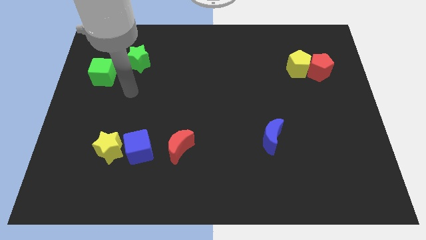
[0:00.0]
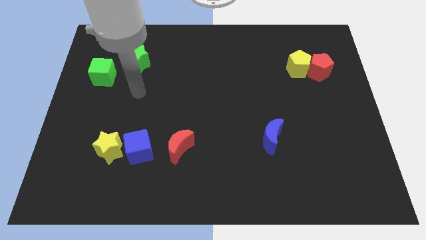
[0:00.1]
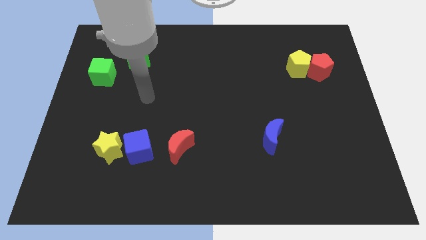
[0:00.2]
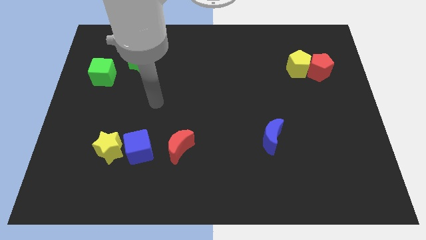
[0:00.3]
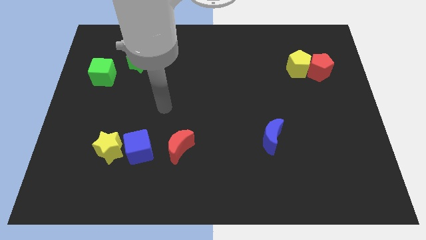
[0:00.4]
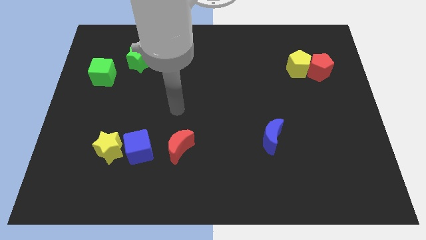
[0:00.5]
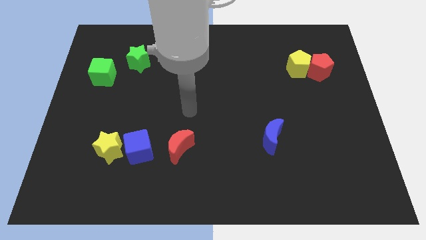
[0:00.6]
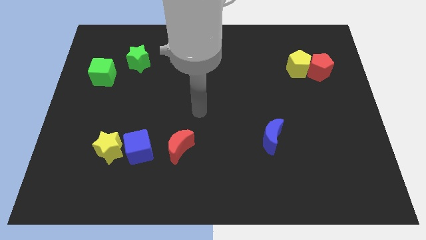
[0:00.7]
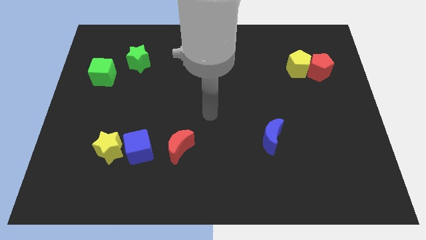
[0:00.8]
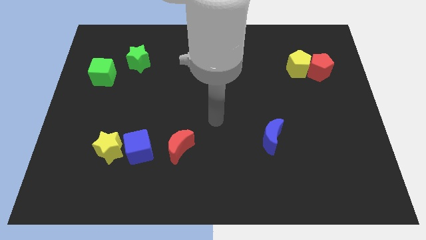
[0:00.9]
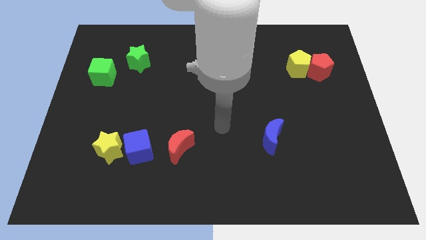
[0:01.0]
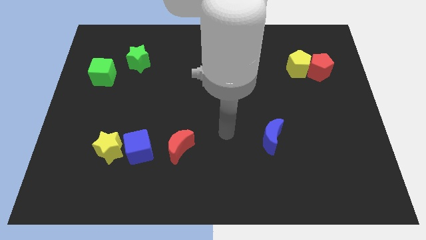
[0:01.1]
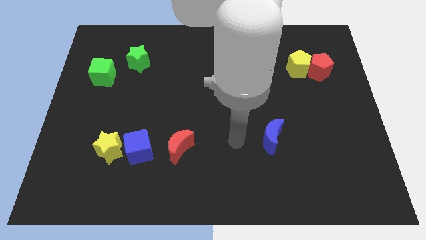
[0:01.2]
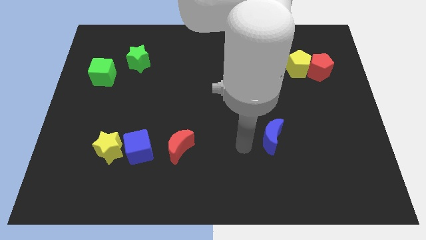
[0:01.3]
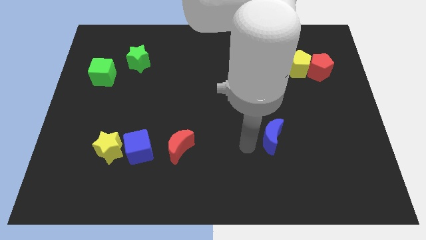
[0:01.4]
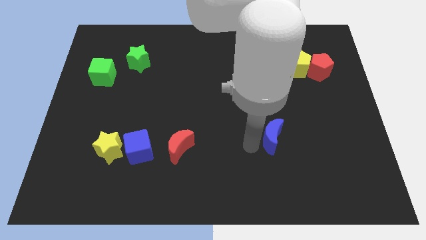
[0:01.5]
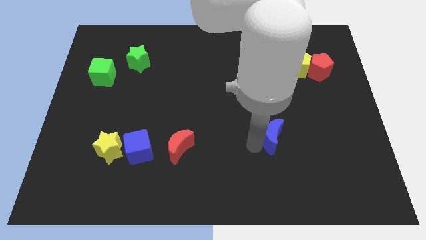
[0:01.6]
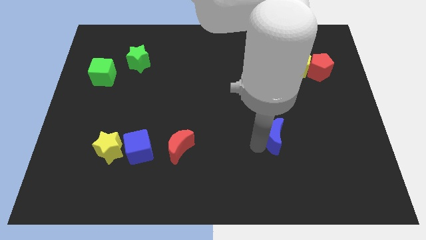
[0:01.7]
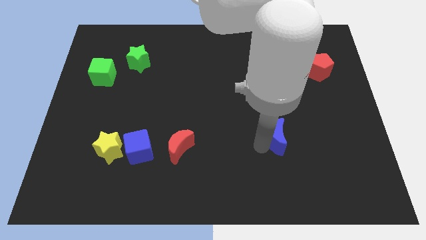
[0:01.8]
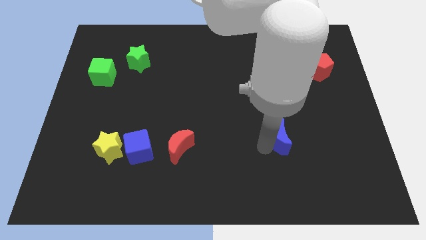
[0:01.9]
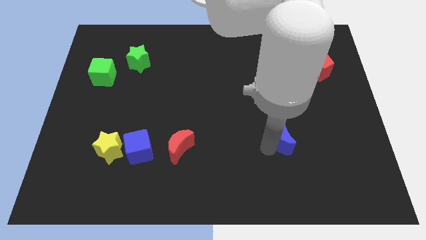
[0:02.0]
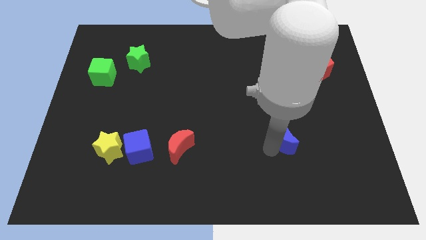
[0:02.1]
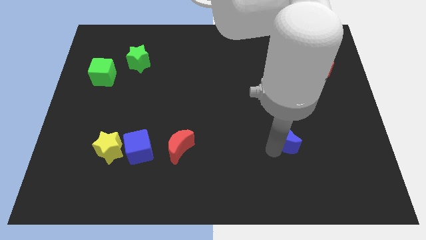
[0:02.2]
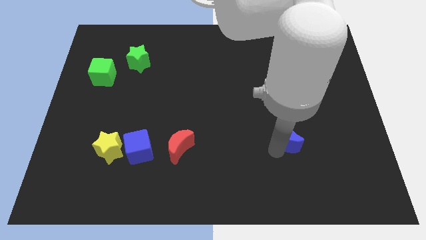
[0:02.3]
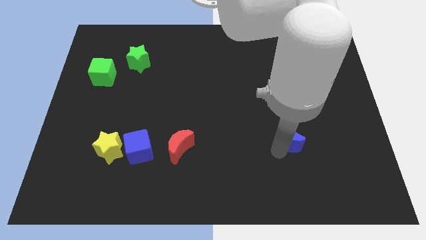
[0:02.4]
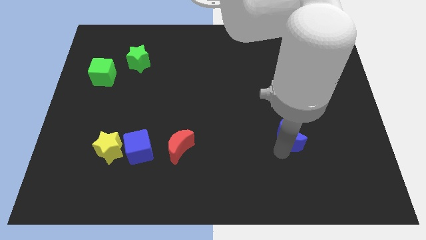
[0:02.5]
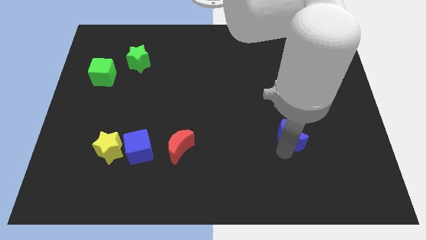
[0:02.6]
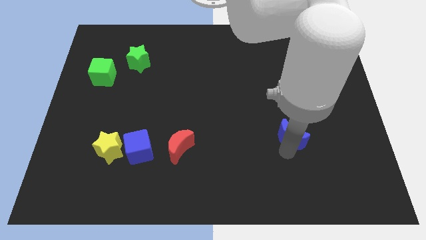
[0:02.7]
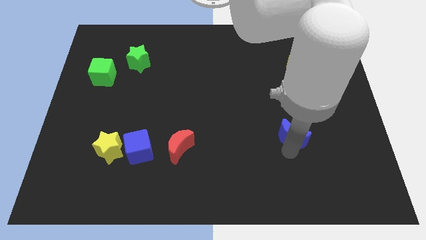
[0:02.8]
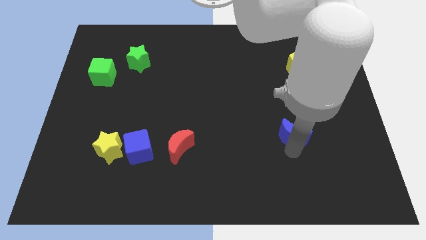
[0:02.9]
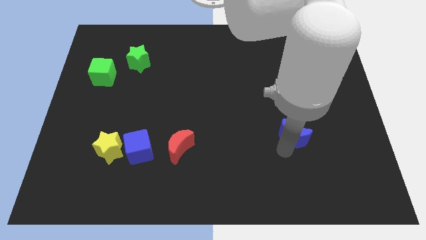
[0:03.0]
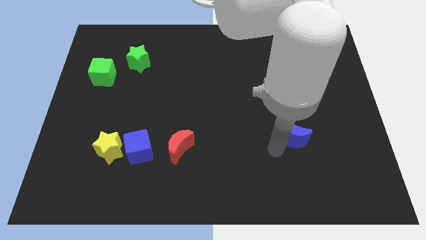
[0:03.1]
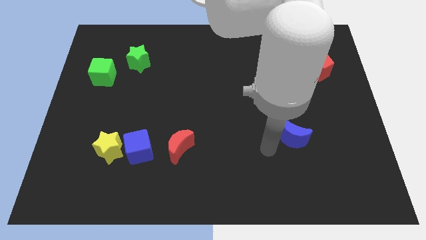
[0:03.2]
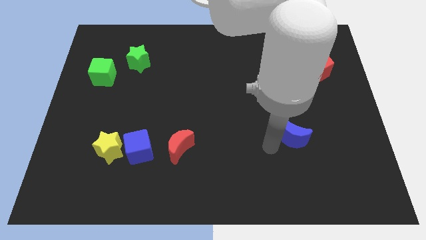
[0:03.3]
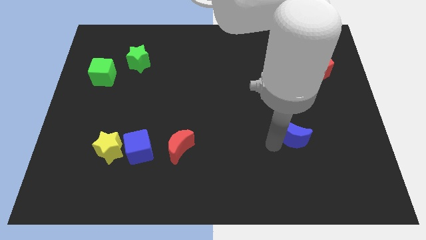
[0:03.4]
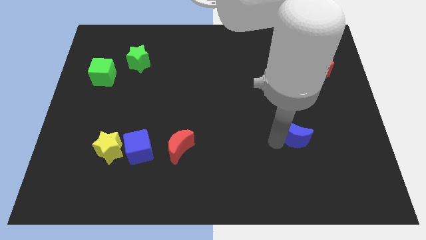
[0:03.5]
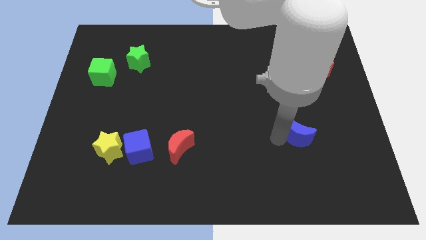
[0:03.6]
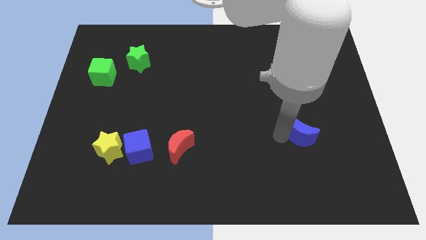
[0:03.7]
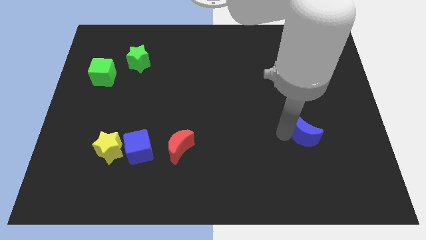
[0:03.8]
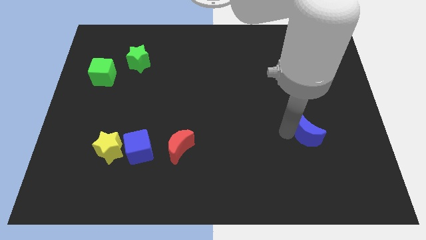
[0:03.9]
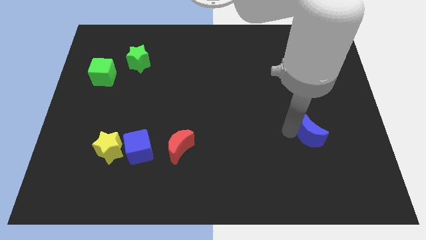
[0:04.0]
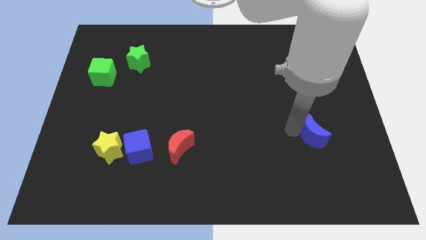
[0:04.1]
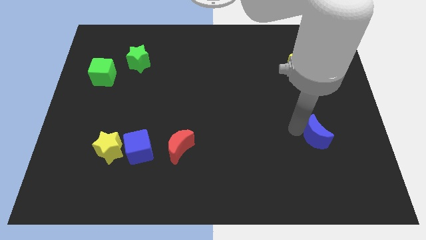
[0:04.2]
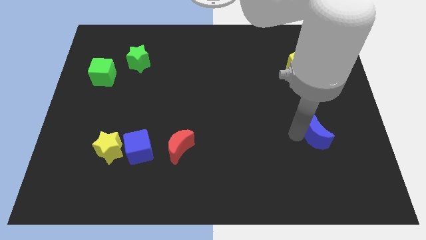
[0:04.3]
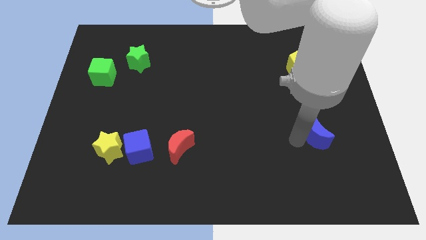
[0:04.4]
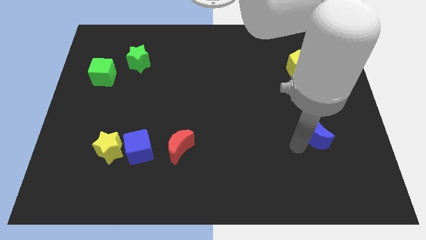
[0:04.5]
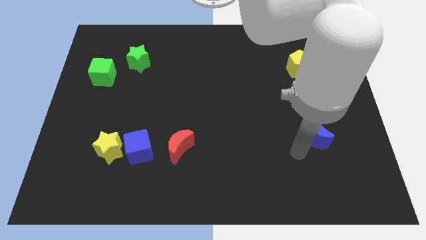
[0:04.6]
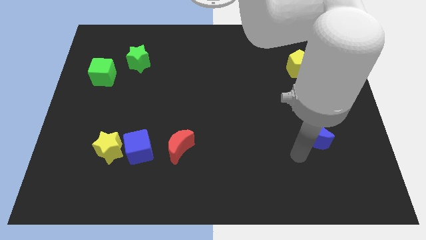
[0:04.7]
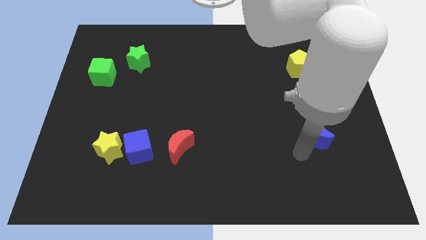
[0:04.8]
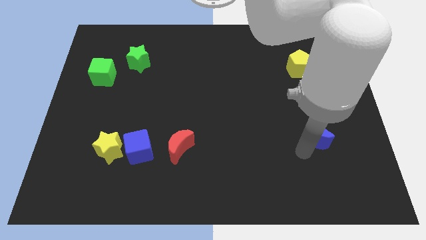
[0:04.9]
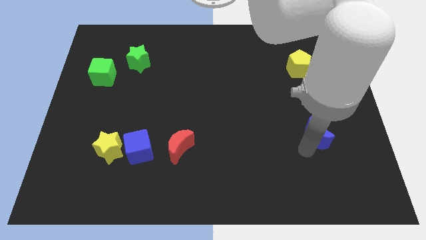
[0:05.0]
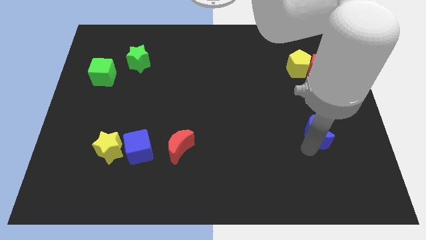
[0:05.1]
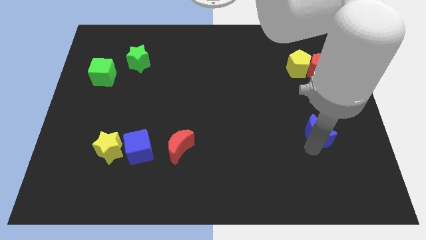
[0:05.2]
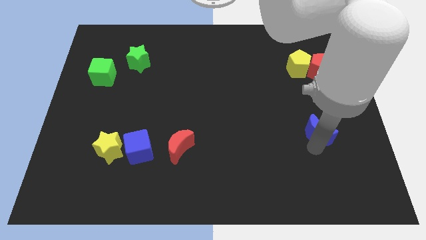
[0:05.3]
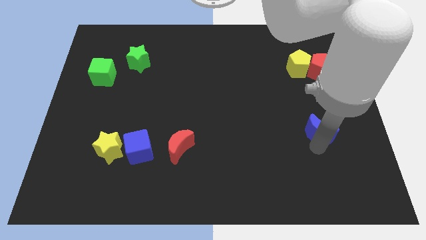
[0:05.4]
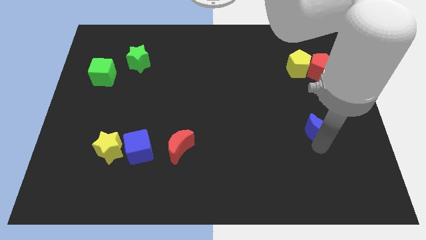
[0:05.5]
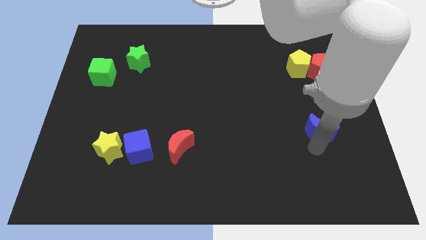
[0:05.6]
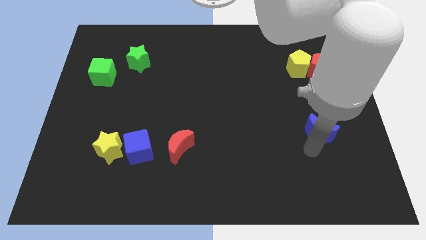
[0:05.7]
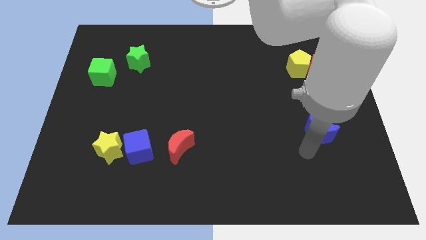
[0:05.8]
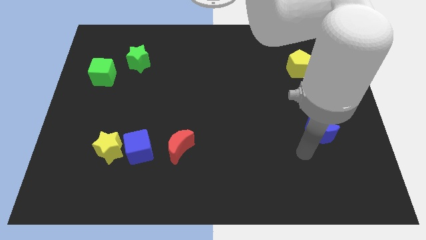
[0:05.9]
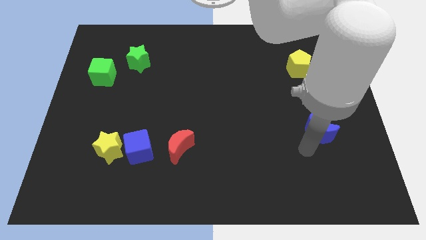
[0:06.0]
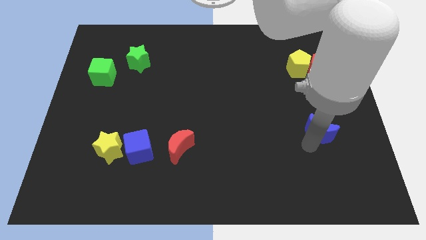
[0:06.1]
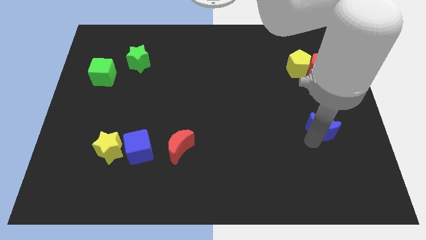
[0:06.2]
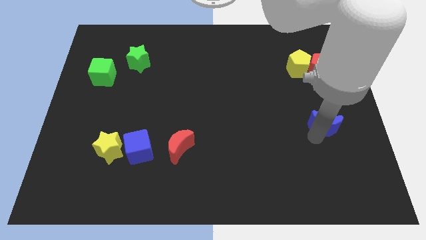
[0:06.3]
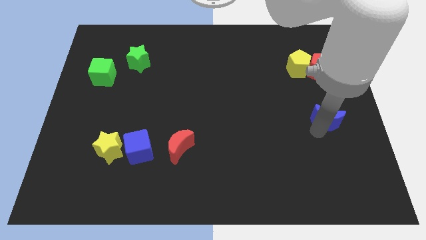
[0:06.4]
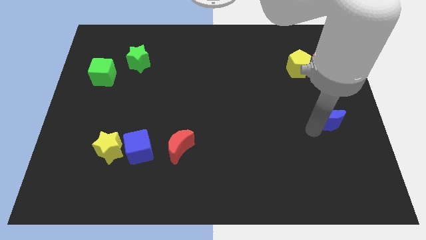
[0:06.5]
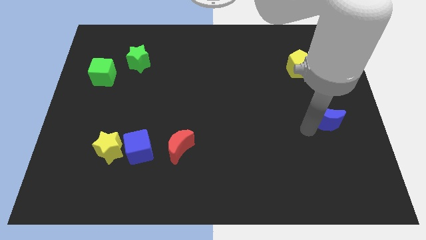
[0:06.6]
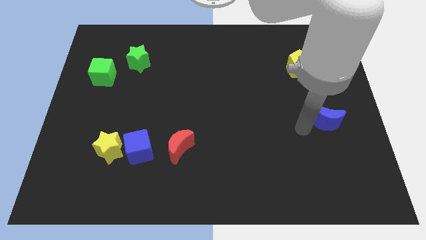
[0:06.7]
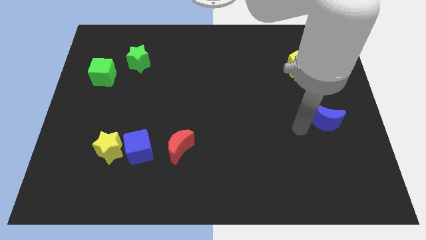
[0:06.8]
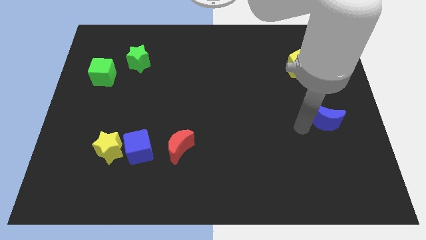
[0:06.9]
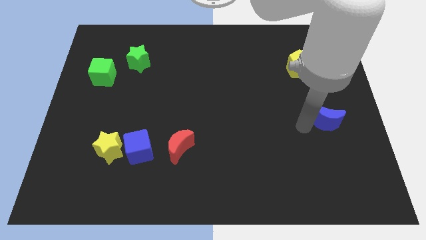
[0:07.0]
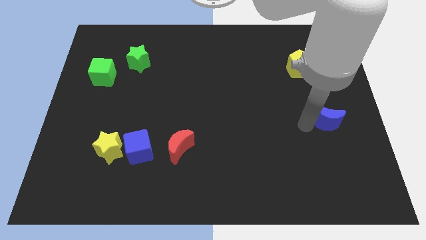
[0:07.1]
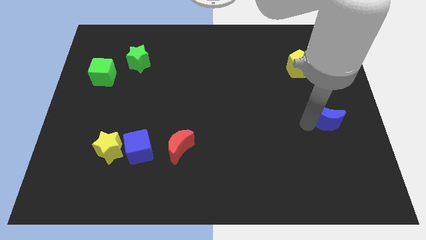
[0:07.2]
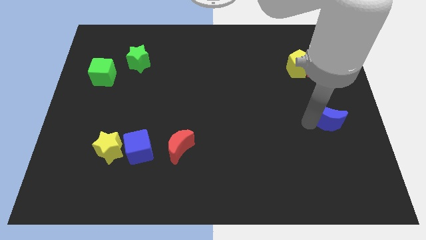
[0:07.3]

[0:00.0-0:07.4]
put the blue moon to the right side of the board
